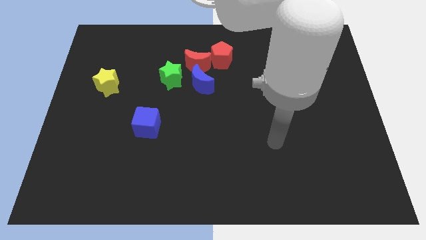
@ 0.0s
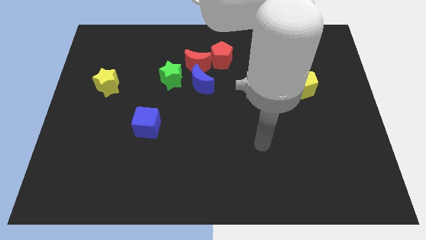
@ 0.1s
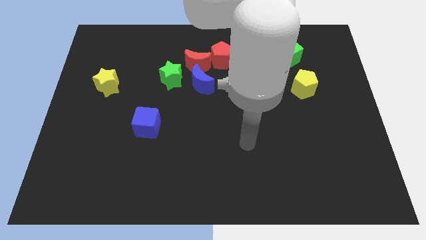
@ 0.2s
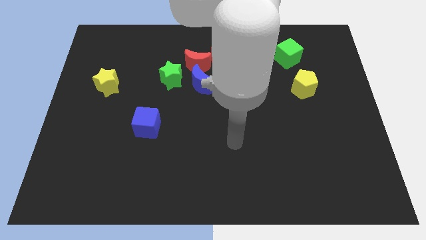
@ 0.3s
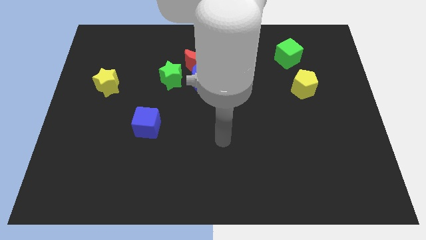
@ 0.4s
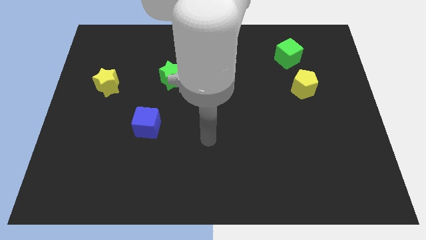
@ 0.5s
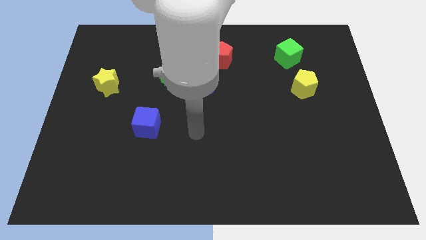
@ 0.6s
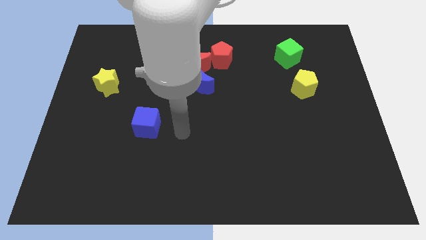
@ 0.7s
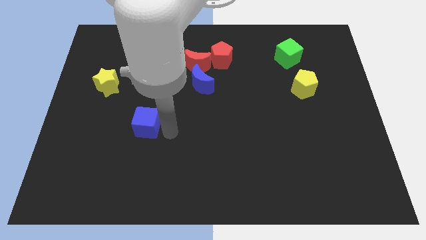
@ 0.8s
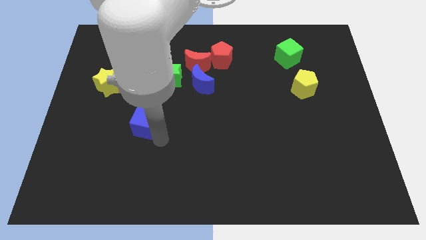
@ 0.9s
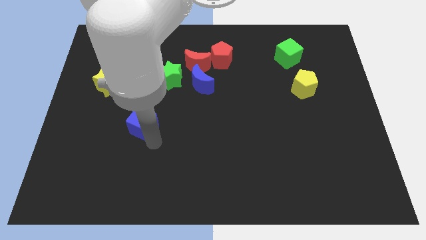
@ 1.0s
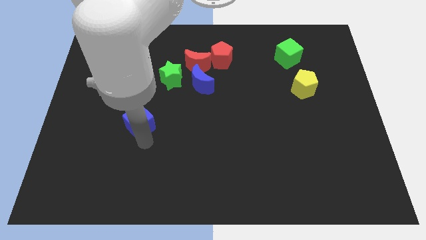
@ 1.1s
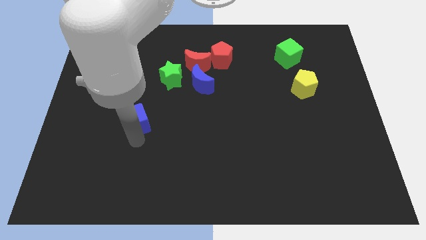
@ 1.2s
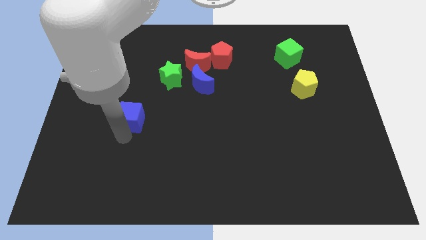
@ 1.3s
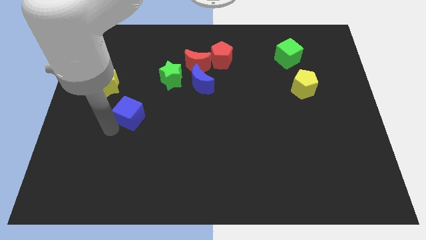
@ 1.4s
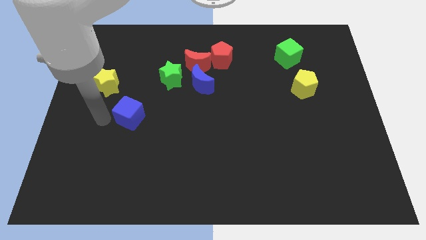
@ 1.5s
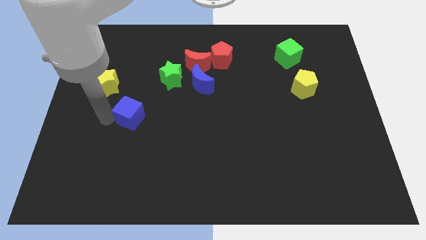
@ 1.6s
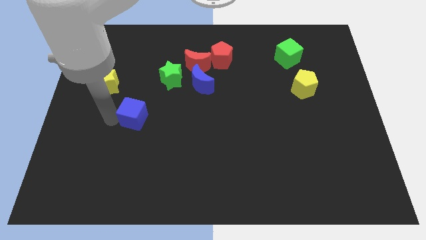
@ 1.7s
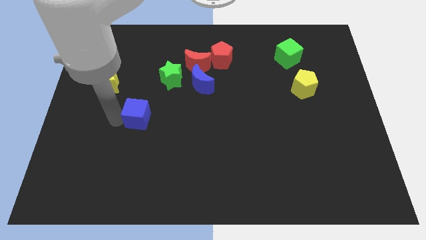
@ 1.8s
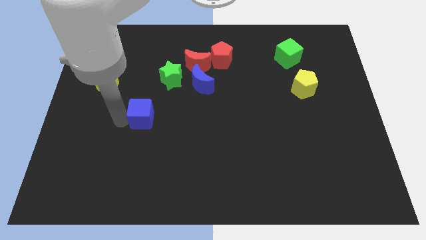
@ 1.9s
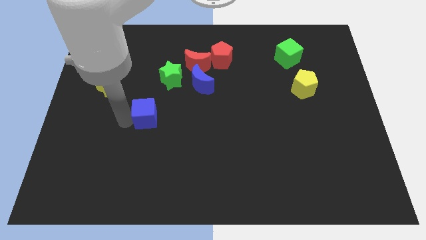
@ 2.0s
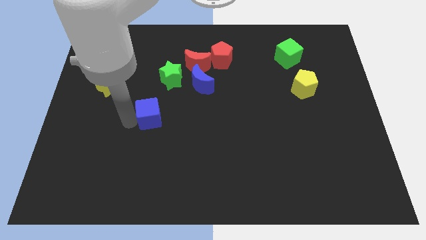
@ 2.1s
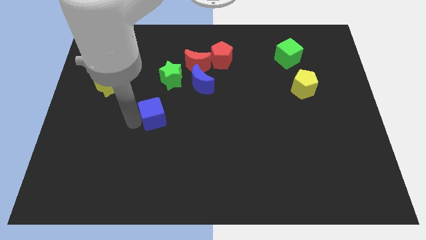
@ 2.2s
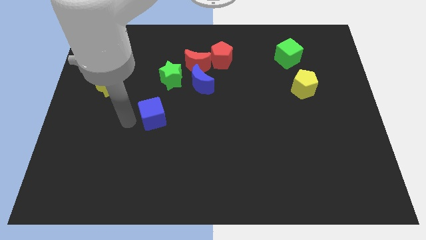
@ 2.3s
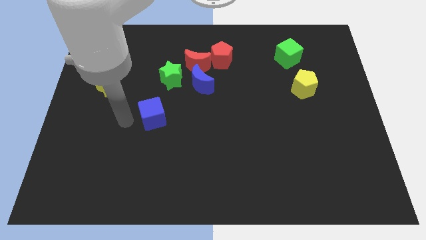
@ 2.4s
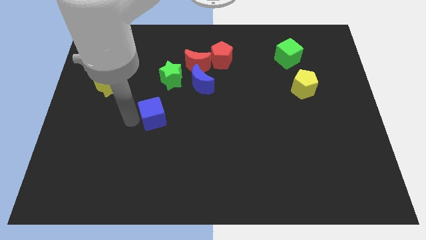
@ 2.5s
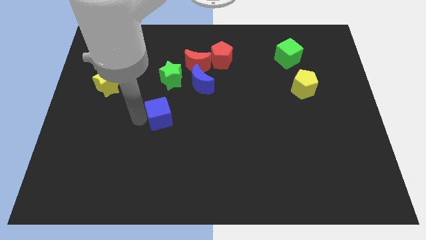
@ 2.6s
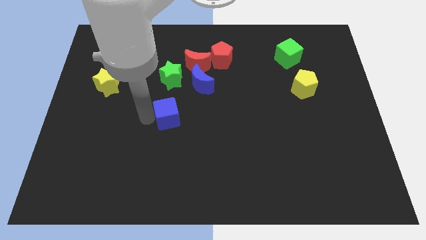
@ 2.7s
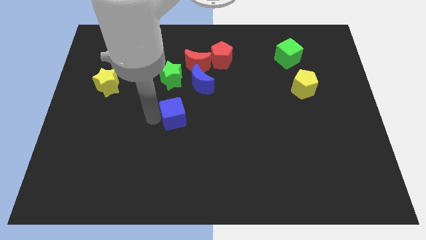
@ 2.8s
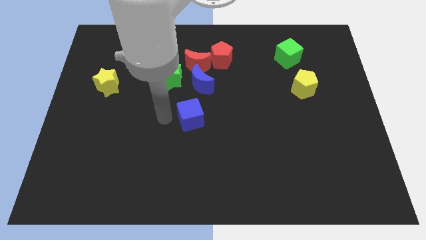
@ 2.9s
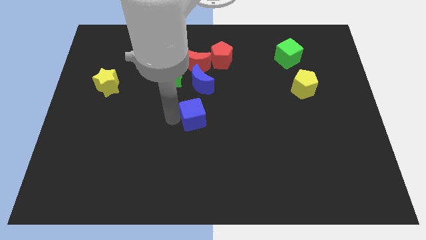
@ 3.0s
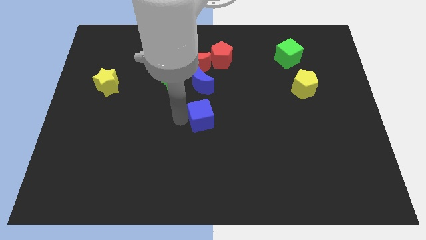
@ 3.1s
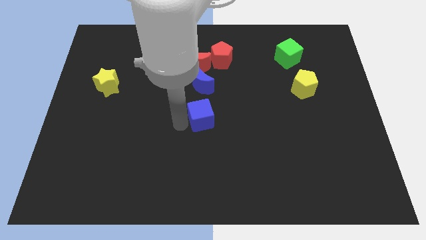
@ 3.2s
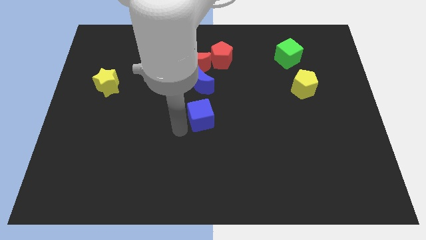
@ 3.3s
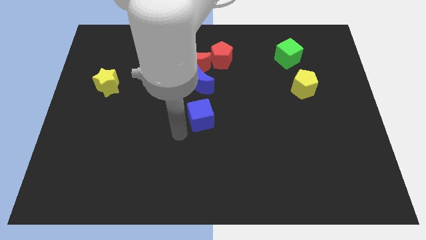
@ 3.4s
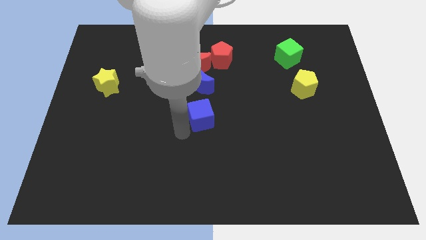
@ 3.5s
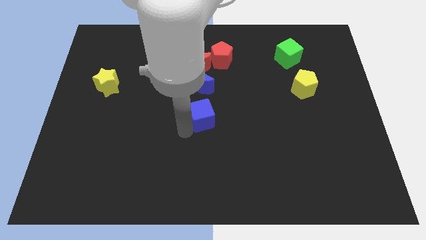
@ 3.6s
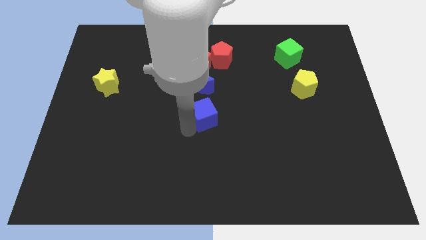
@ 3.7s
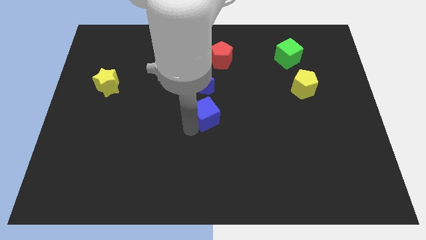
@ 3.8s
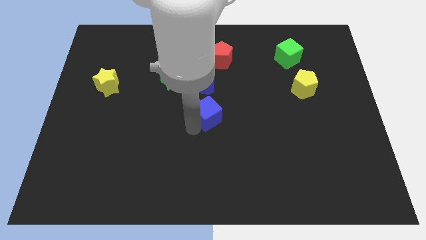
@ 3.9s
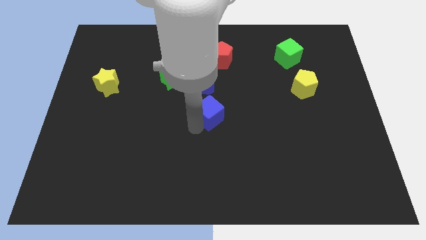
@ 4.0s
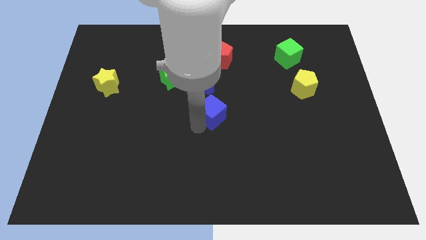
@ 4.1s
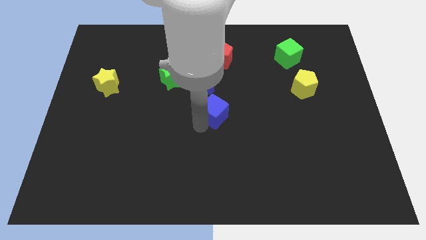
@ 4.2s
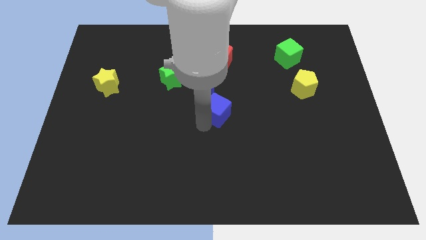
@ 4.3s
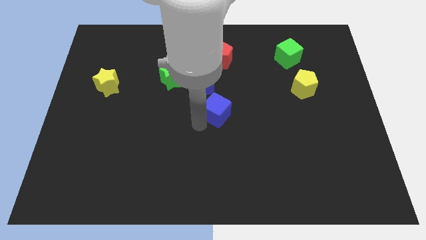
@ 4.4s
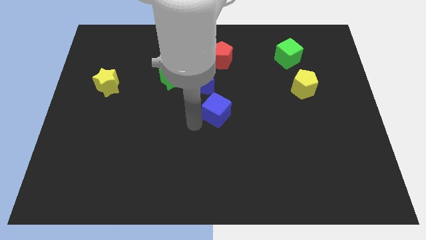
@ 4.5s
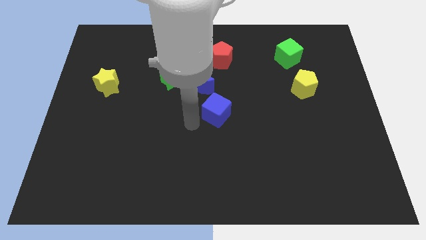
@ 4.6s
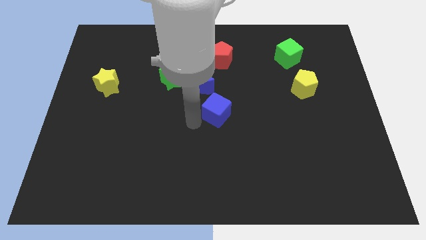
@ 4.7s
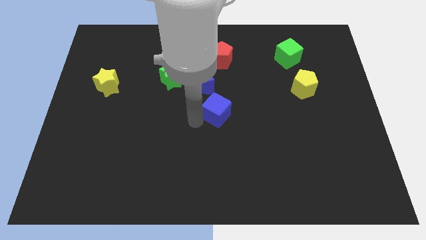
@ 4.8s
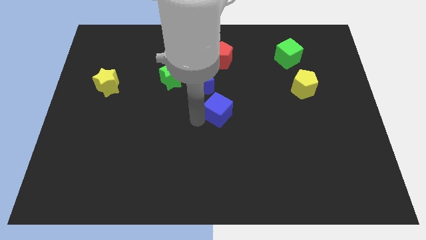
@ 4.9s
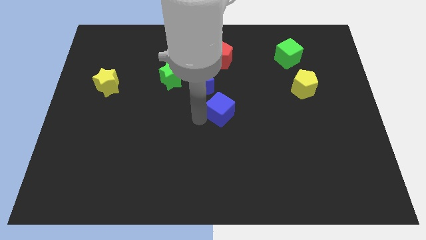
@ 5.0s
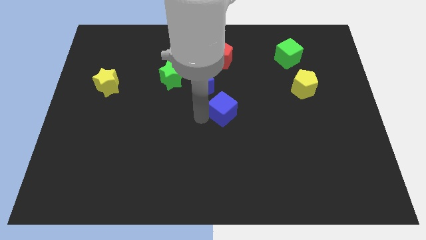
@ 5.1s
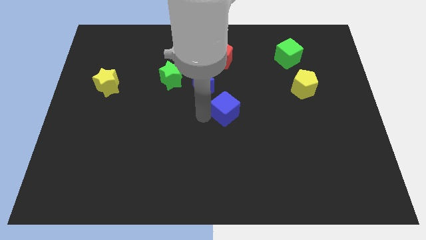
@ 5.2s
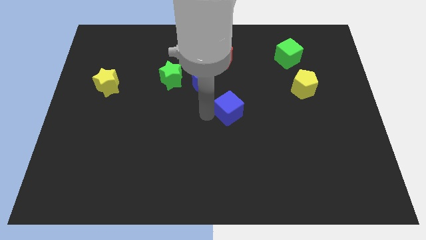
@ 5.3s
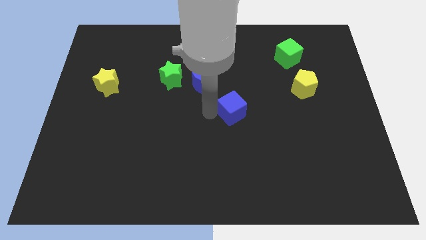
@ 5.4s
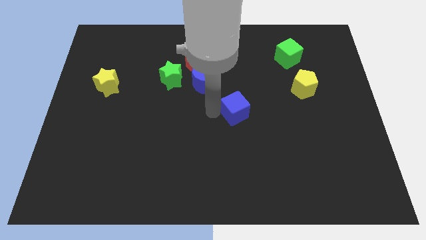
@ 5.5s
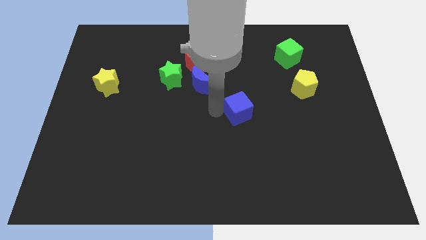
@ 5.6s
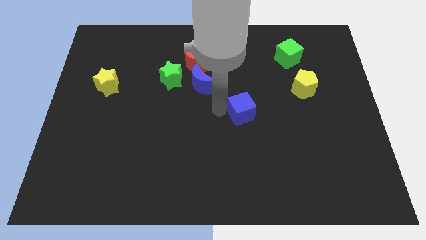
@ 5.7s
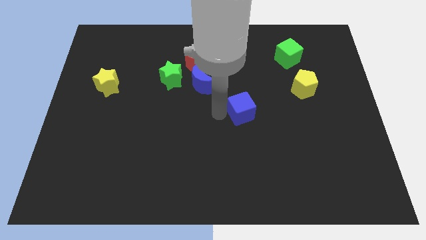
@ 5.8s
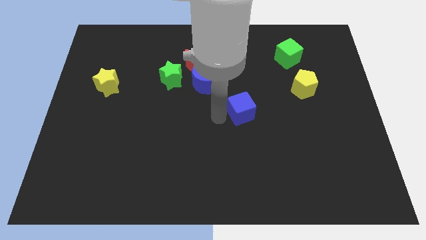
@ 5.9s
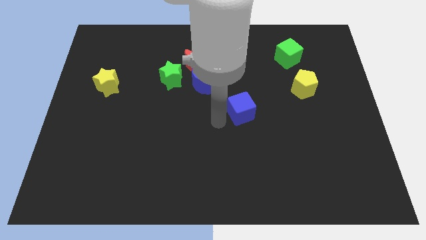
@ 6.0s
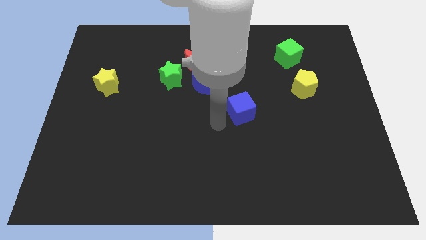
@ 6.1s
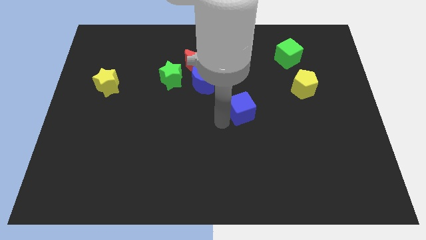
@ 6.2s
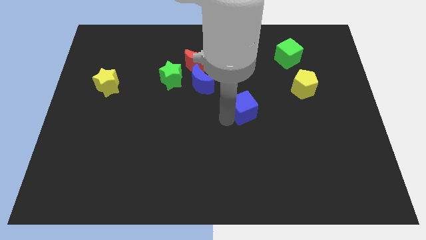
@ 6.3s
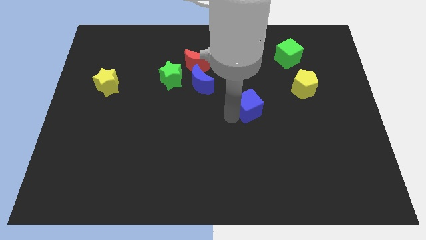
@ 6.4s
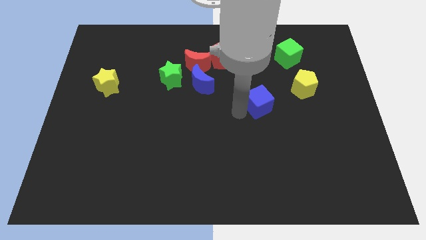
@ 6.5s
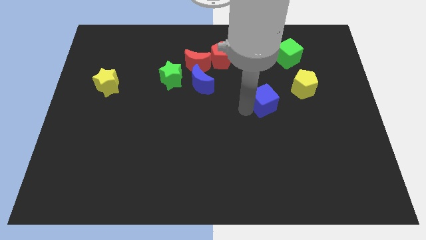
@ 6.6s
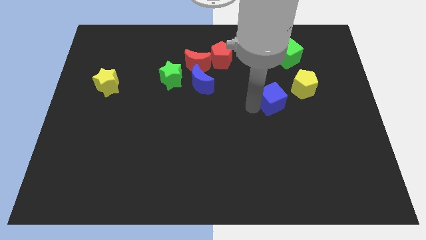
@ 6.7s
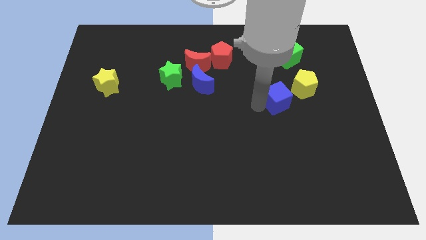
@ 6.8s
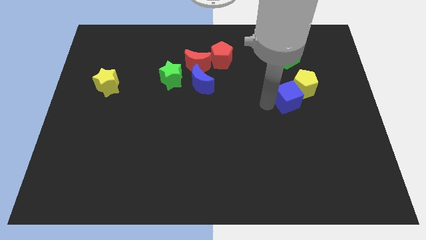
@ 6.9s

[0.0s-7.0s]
push the blue cube to the yellow pentagon

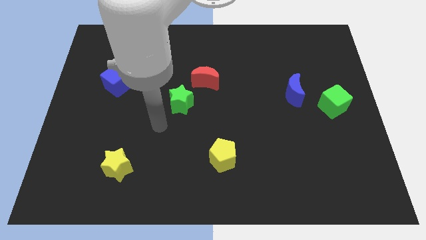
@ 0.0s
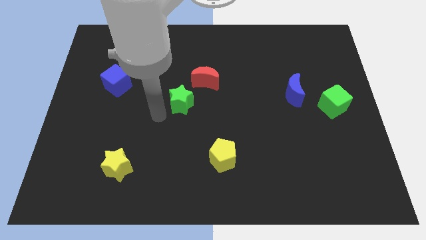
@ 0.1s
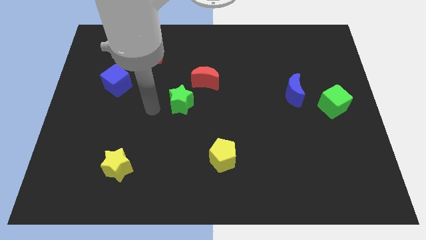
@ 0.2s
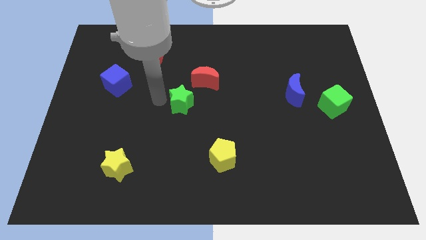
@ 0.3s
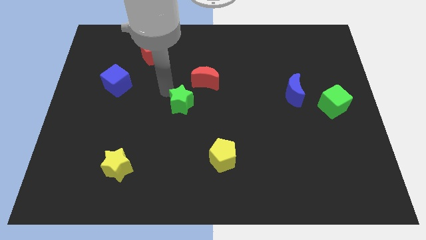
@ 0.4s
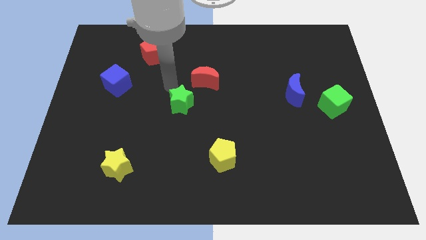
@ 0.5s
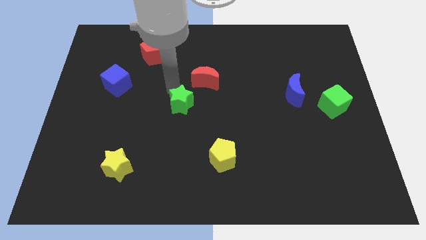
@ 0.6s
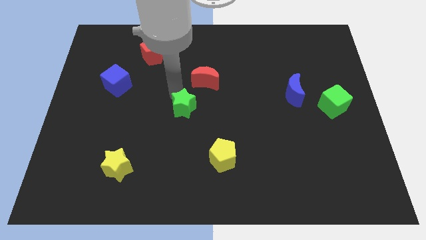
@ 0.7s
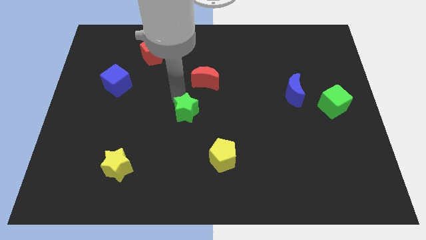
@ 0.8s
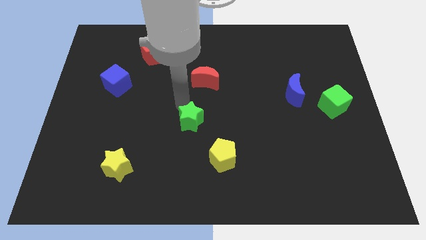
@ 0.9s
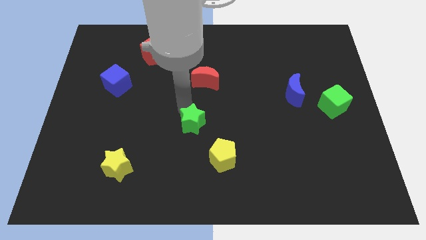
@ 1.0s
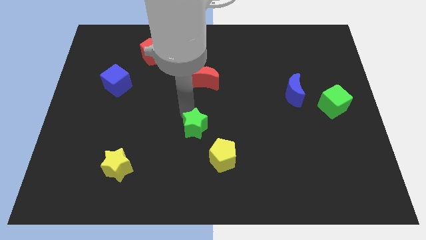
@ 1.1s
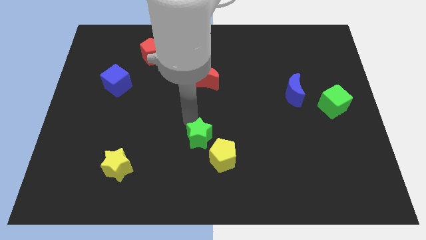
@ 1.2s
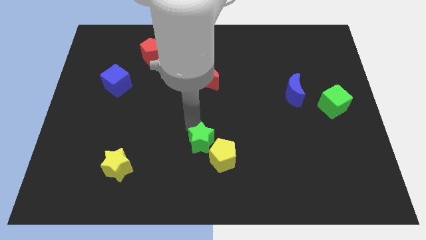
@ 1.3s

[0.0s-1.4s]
push the green star towards the yellow pentagon
